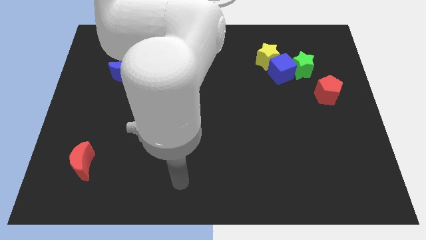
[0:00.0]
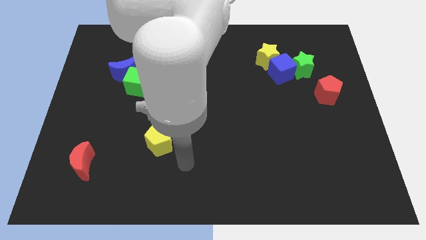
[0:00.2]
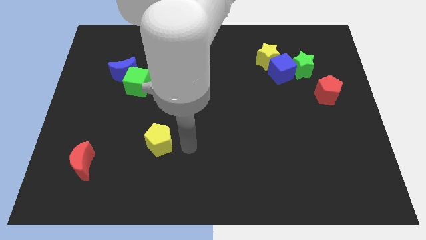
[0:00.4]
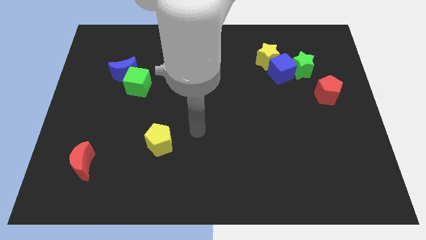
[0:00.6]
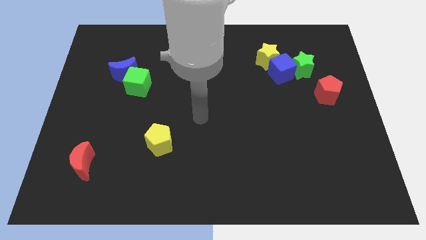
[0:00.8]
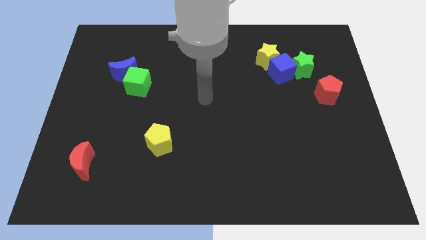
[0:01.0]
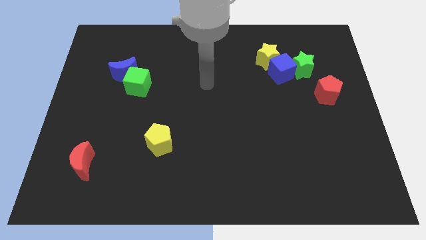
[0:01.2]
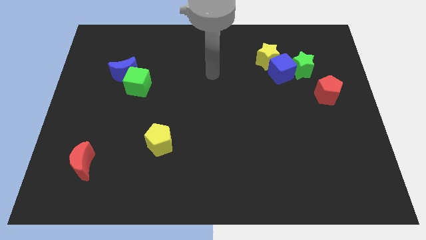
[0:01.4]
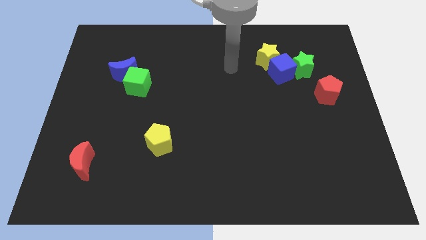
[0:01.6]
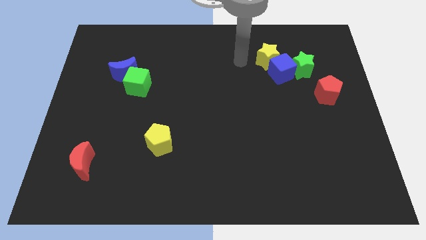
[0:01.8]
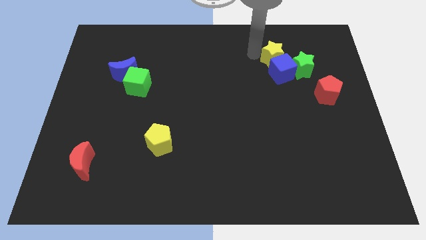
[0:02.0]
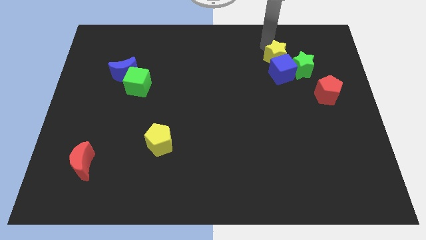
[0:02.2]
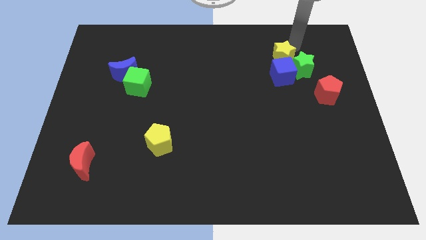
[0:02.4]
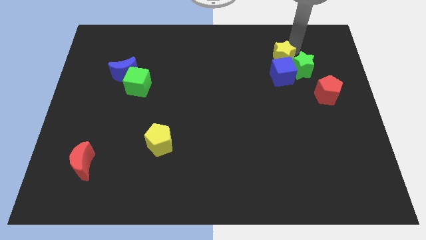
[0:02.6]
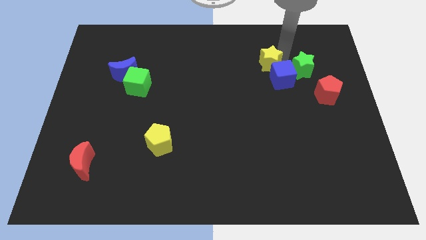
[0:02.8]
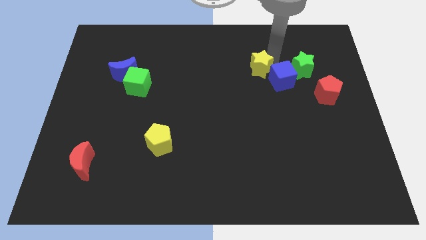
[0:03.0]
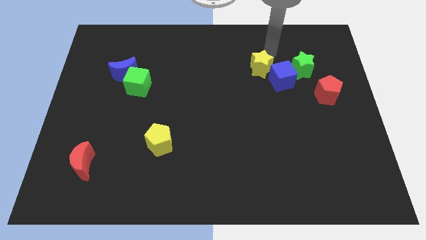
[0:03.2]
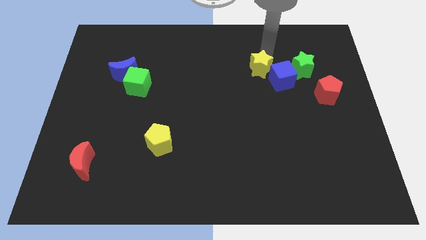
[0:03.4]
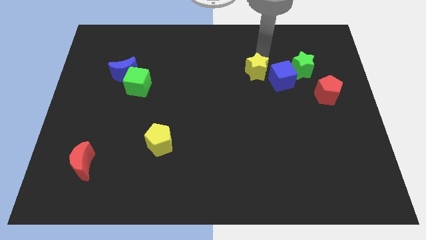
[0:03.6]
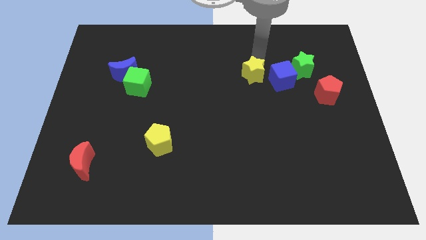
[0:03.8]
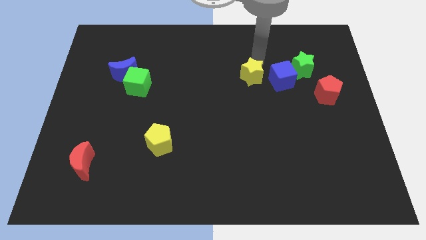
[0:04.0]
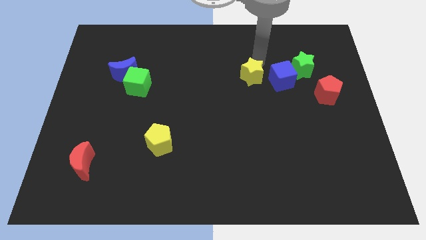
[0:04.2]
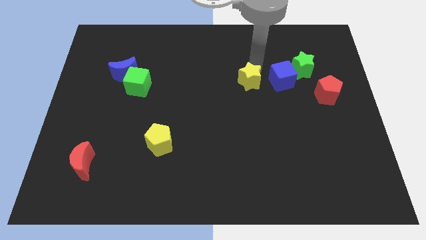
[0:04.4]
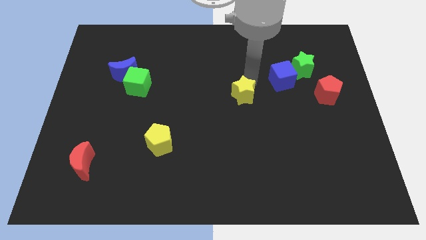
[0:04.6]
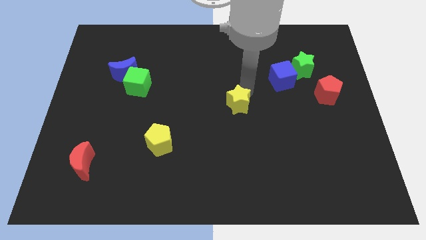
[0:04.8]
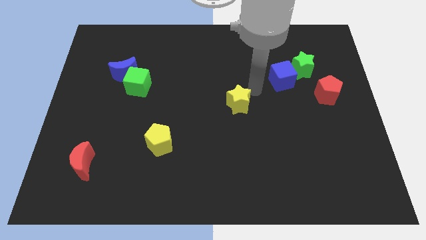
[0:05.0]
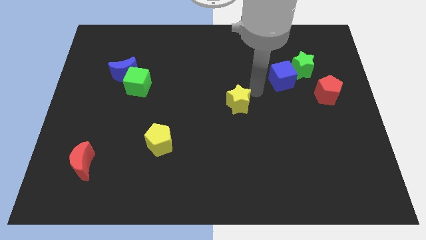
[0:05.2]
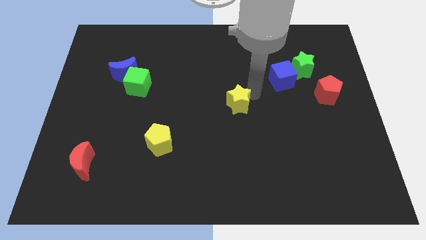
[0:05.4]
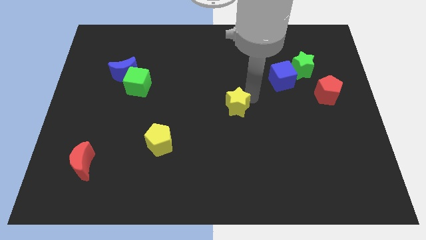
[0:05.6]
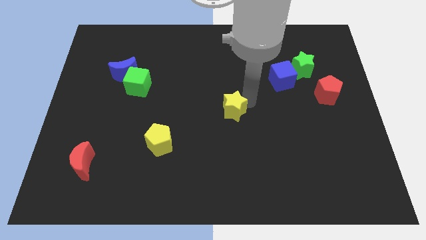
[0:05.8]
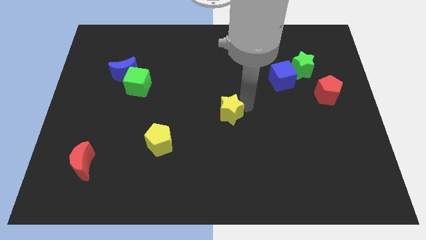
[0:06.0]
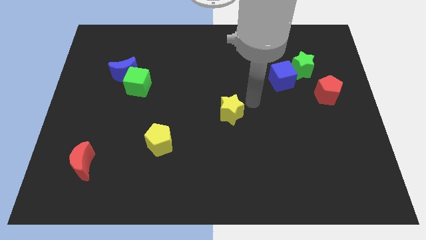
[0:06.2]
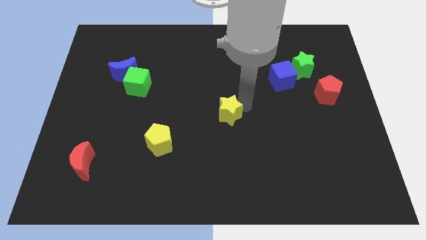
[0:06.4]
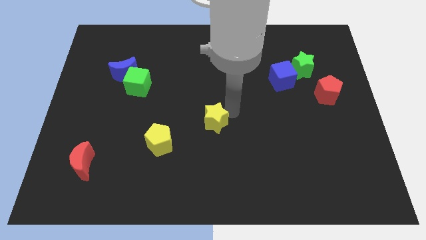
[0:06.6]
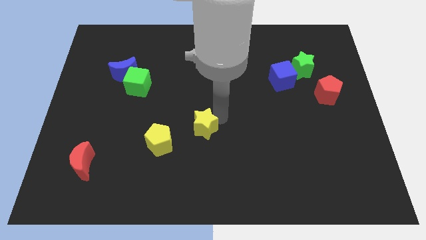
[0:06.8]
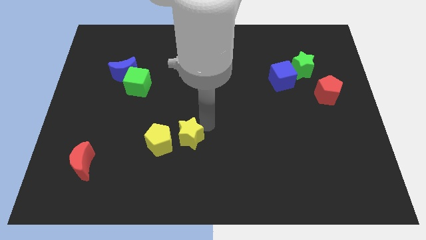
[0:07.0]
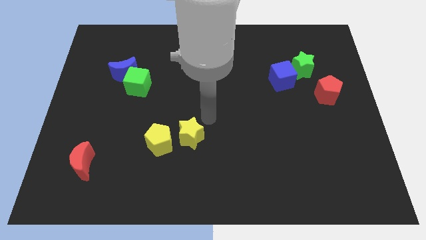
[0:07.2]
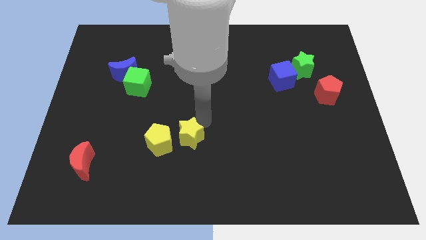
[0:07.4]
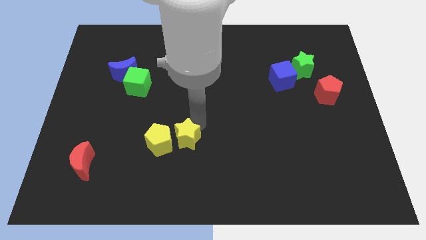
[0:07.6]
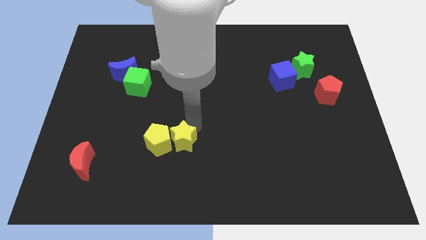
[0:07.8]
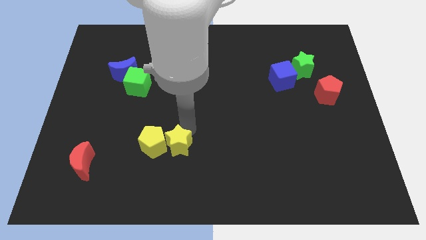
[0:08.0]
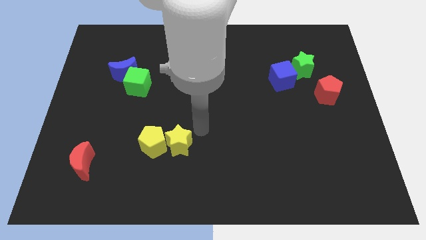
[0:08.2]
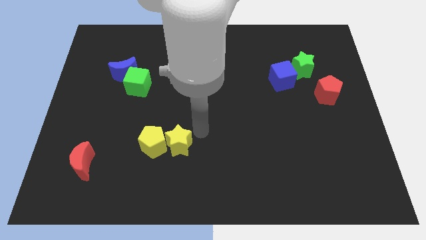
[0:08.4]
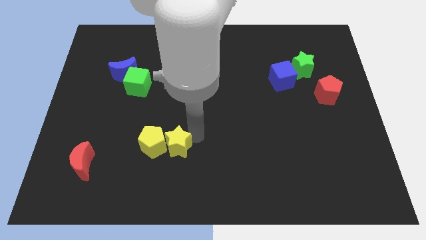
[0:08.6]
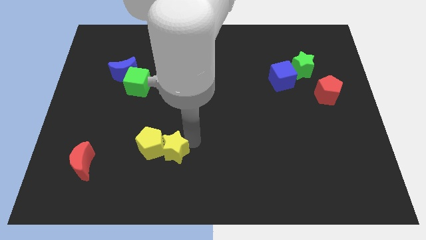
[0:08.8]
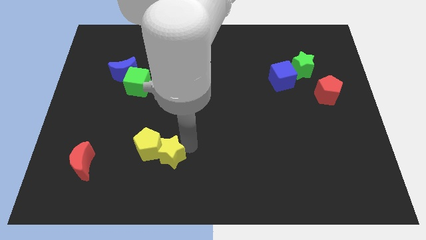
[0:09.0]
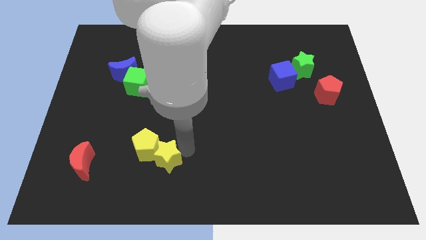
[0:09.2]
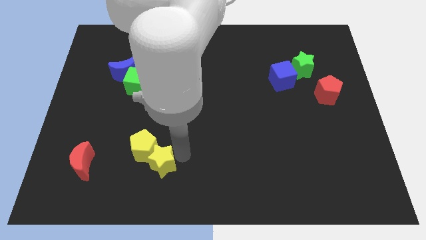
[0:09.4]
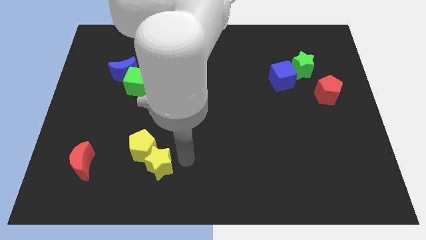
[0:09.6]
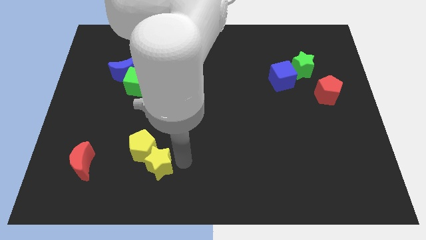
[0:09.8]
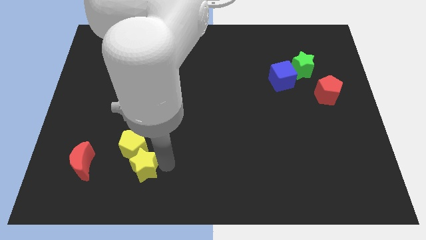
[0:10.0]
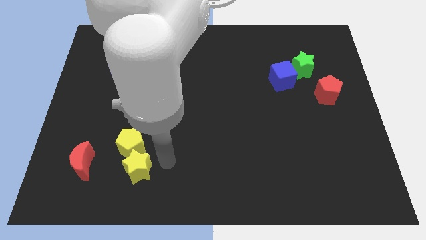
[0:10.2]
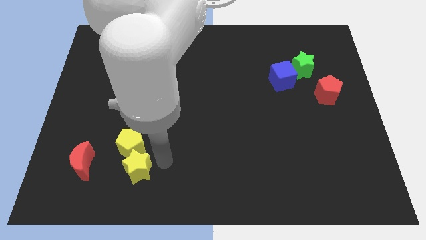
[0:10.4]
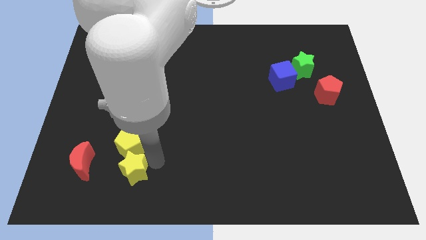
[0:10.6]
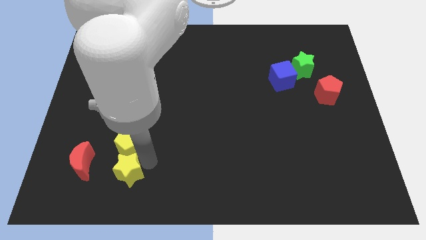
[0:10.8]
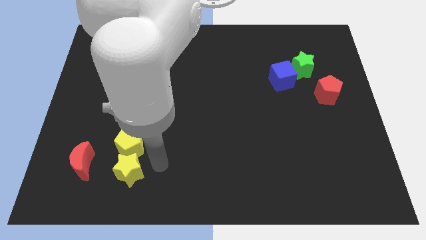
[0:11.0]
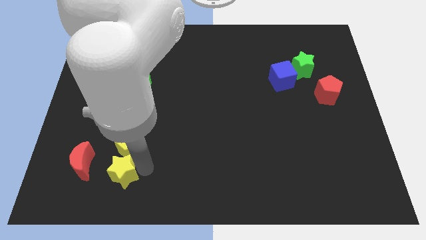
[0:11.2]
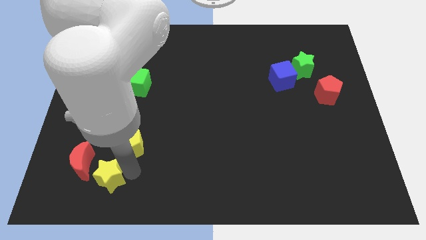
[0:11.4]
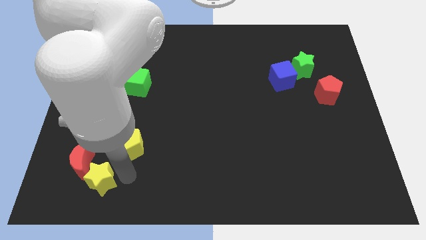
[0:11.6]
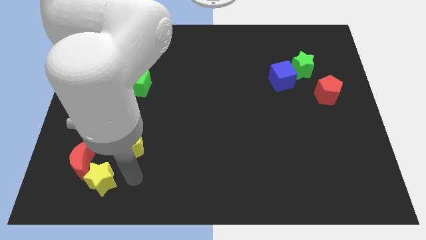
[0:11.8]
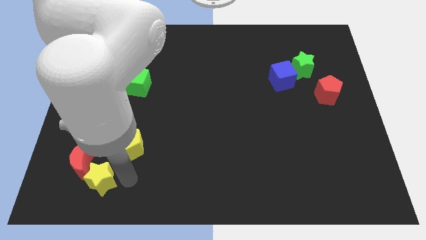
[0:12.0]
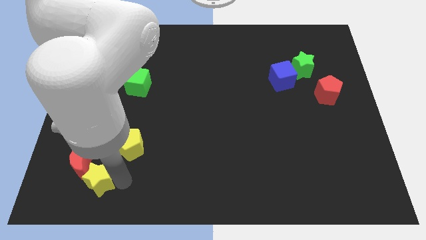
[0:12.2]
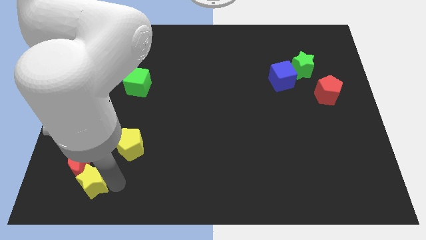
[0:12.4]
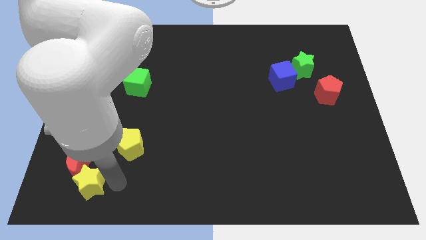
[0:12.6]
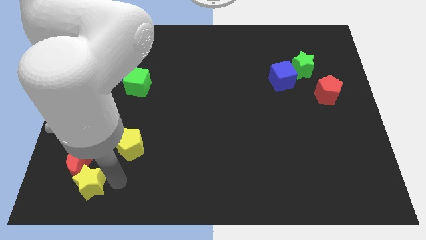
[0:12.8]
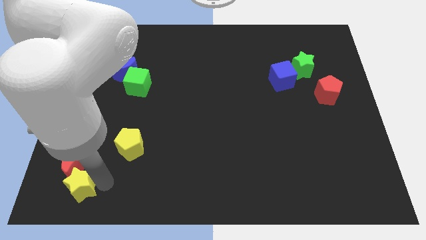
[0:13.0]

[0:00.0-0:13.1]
put the yellow star to the bottom left corner

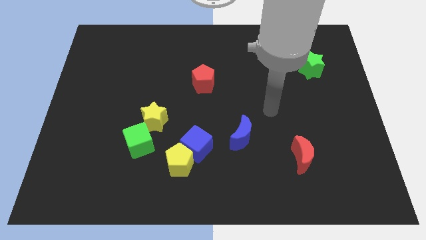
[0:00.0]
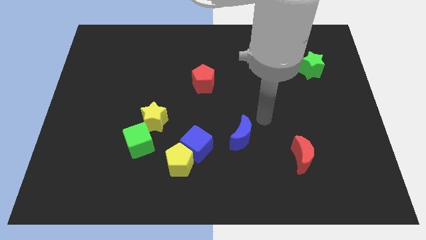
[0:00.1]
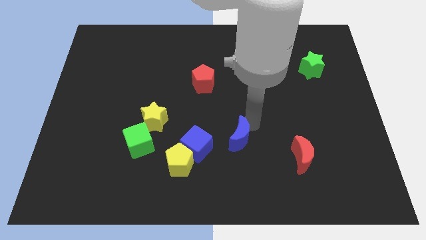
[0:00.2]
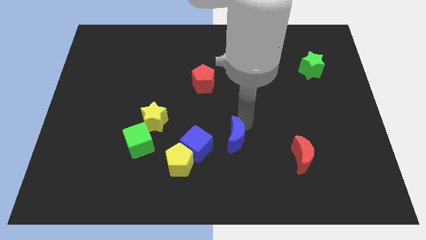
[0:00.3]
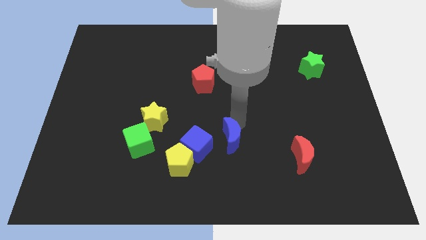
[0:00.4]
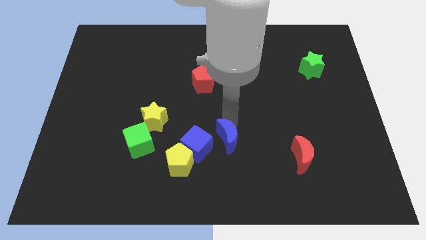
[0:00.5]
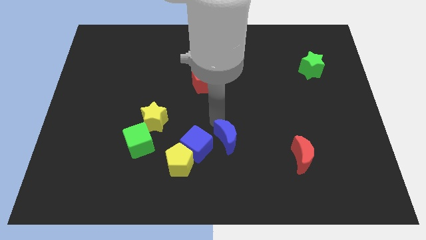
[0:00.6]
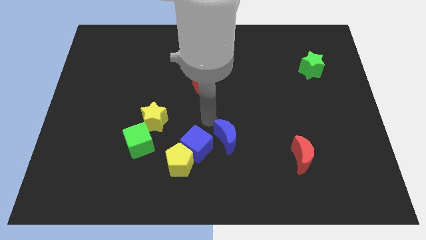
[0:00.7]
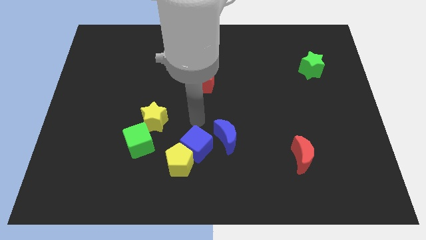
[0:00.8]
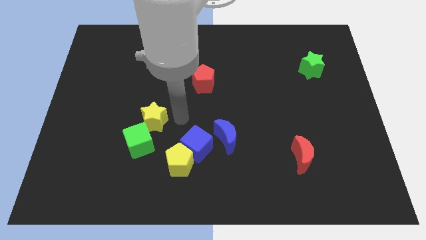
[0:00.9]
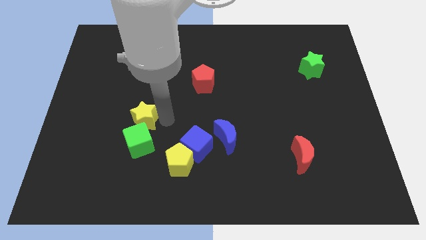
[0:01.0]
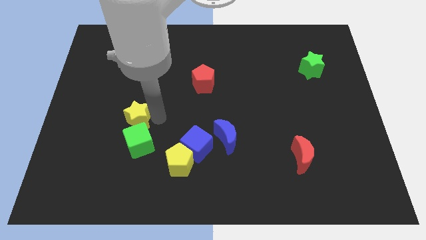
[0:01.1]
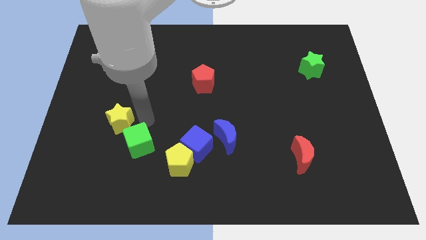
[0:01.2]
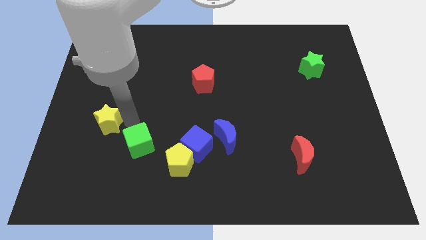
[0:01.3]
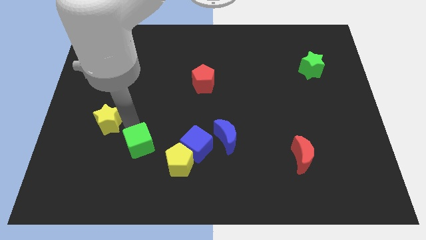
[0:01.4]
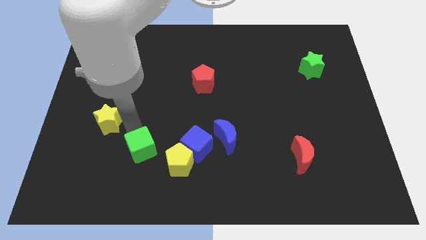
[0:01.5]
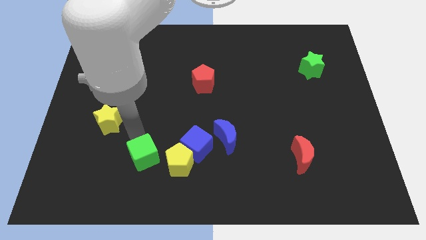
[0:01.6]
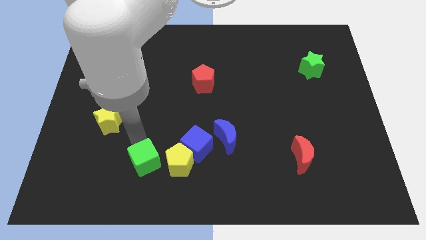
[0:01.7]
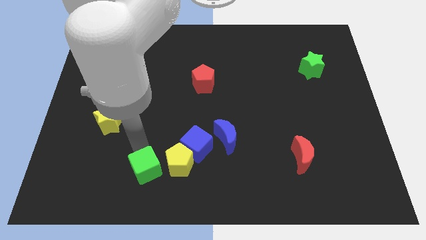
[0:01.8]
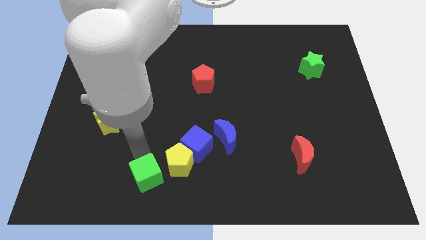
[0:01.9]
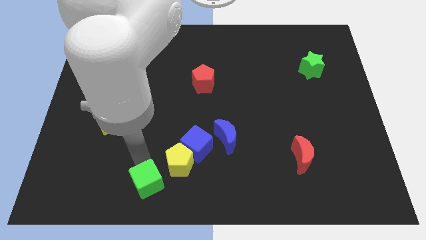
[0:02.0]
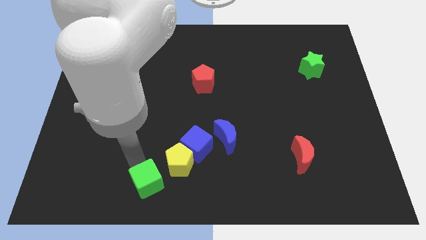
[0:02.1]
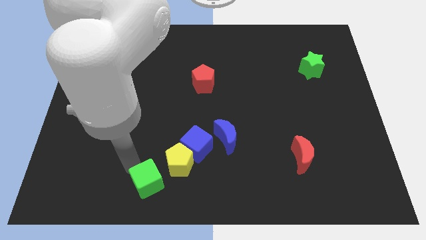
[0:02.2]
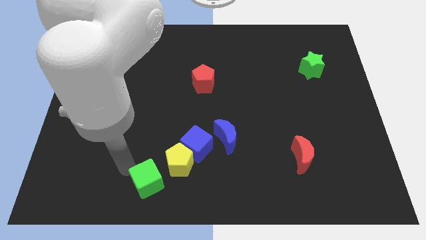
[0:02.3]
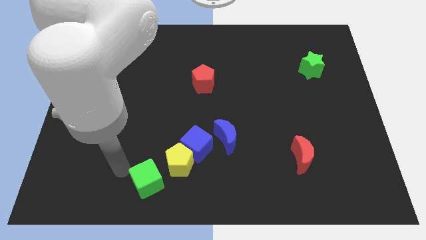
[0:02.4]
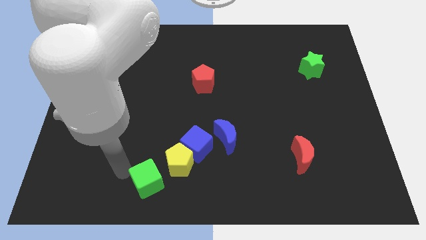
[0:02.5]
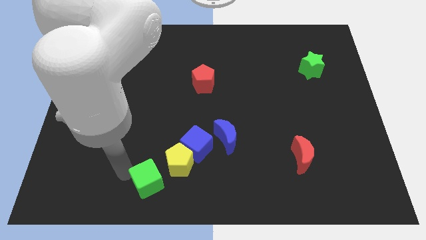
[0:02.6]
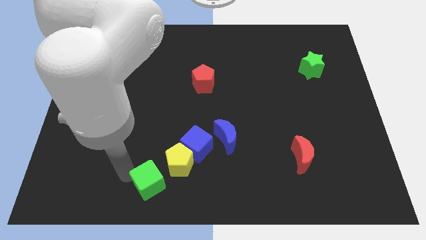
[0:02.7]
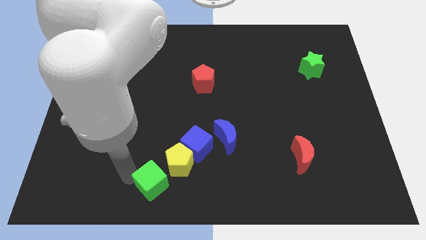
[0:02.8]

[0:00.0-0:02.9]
move the green cube to the bottom side
